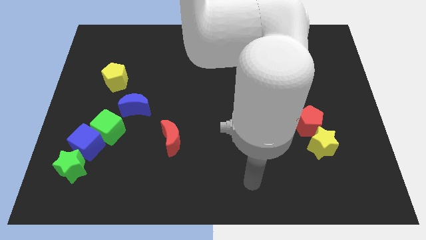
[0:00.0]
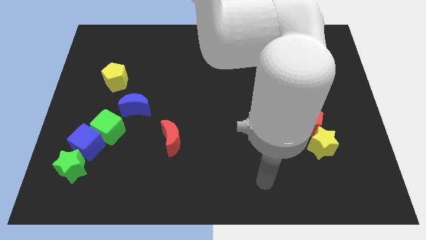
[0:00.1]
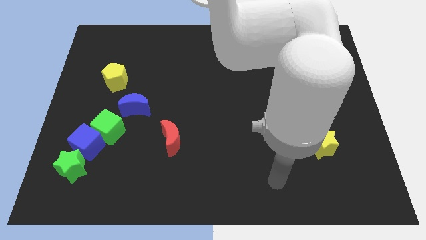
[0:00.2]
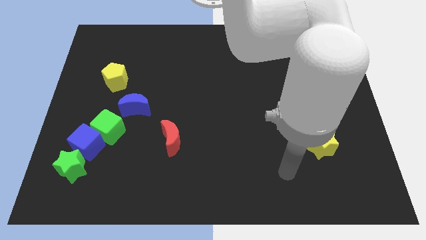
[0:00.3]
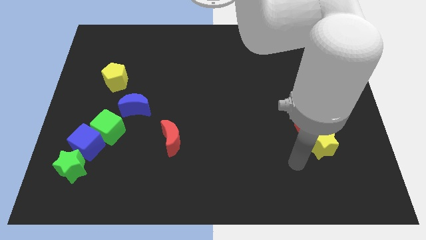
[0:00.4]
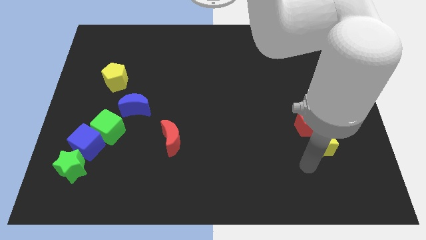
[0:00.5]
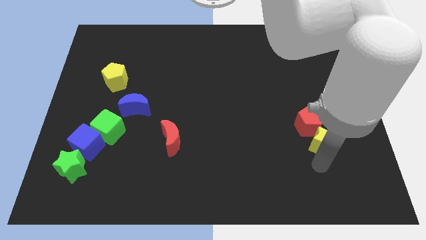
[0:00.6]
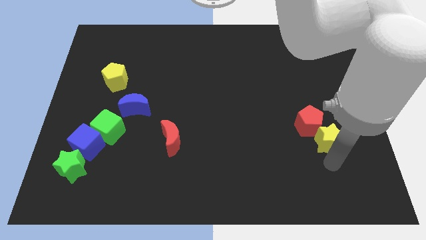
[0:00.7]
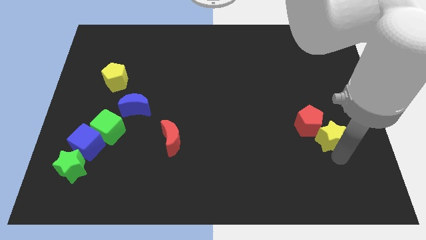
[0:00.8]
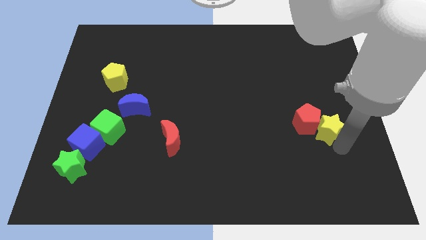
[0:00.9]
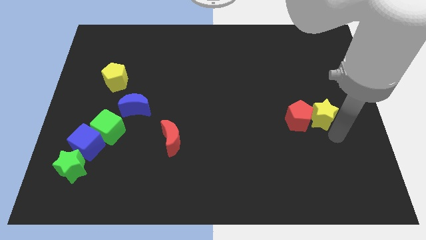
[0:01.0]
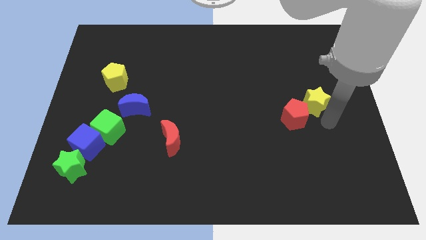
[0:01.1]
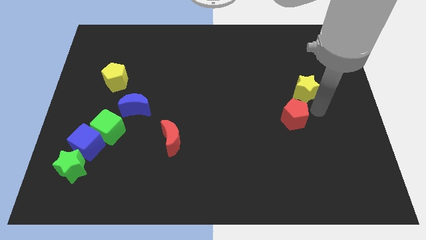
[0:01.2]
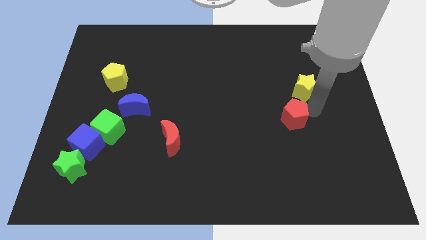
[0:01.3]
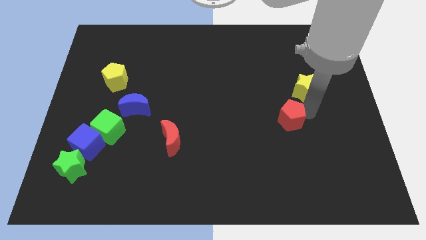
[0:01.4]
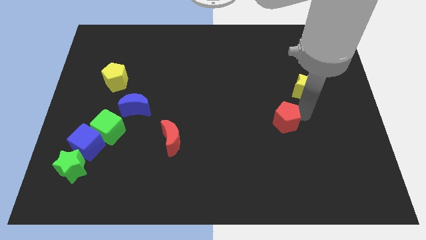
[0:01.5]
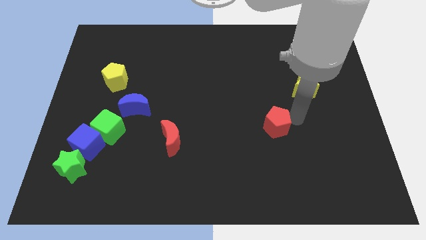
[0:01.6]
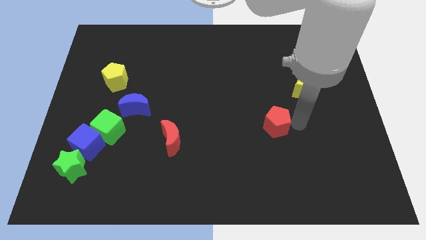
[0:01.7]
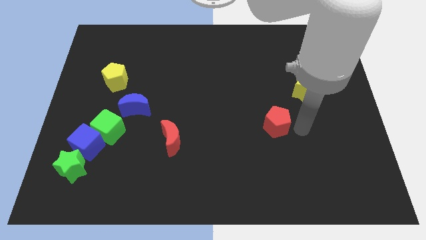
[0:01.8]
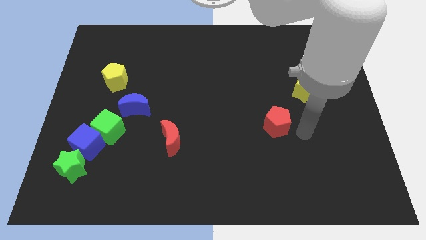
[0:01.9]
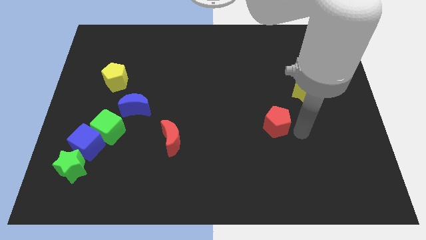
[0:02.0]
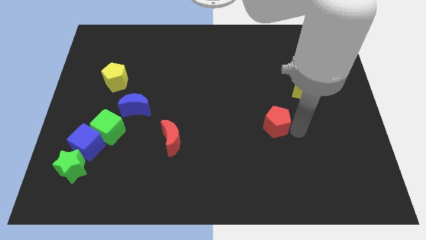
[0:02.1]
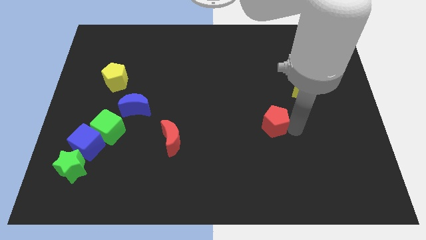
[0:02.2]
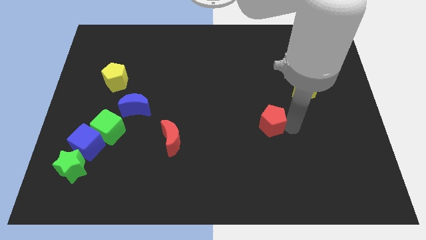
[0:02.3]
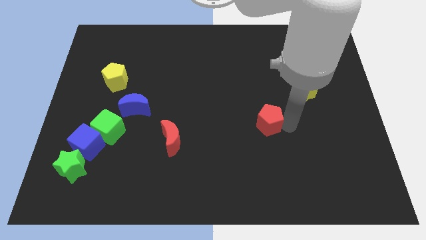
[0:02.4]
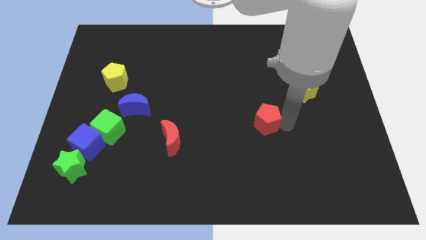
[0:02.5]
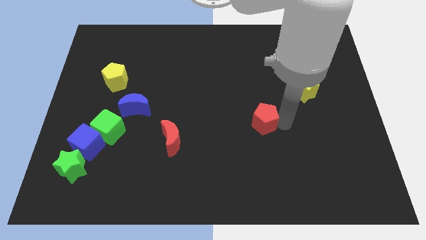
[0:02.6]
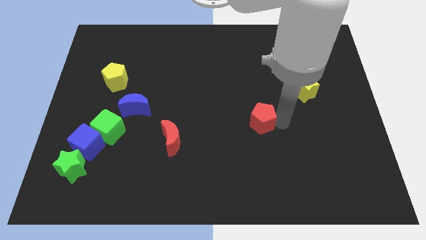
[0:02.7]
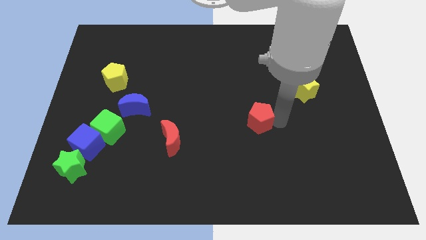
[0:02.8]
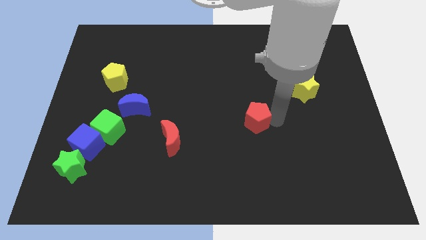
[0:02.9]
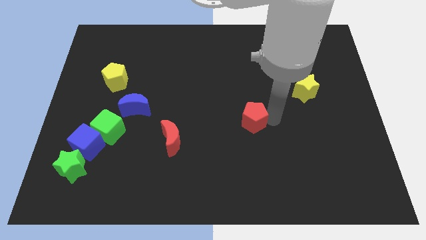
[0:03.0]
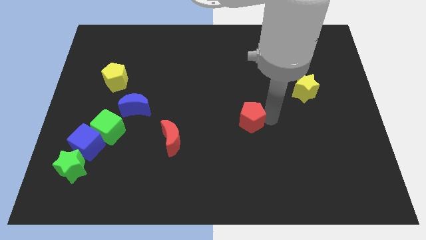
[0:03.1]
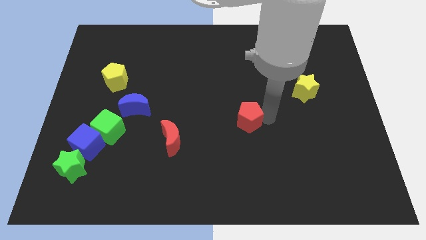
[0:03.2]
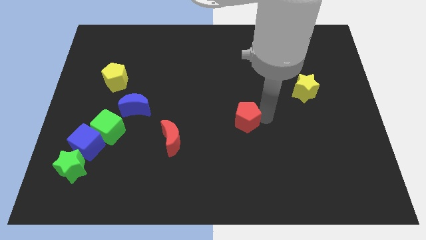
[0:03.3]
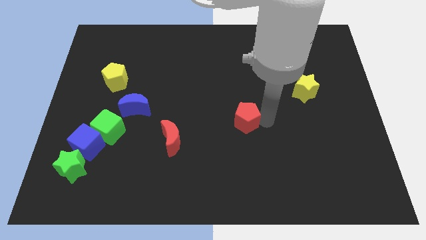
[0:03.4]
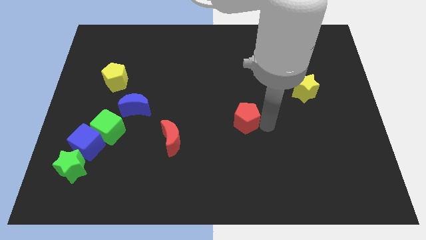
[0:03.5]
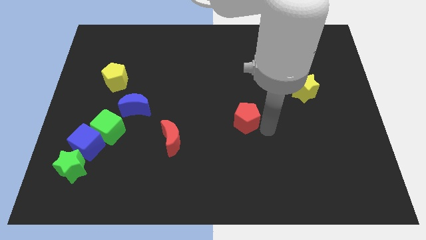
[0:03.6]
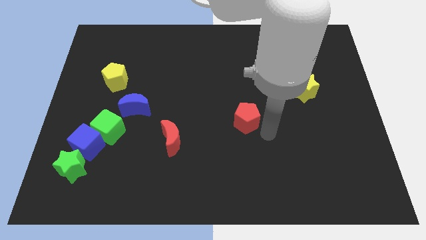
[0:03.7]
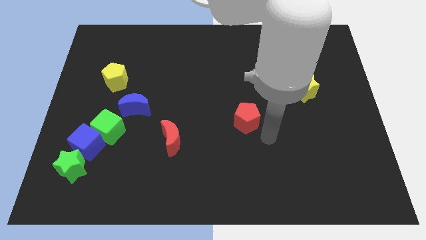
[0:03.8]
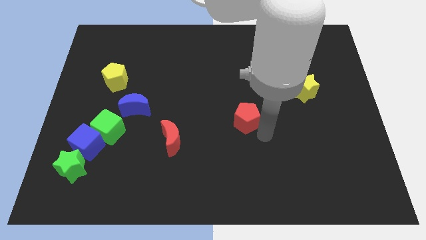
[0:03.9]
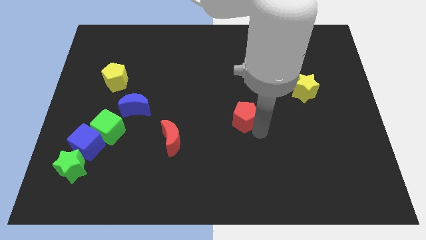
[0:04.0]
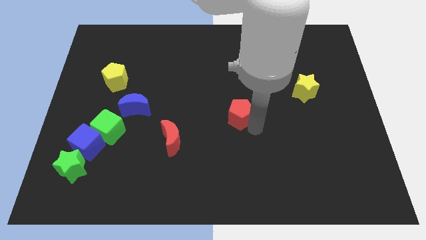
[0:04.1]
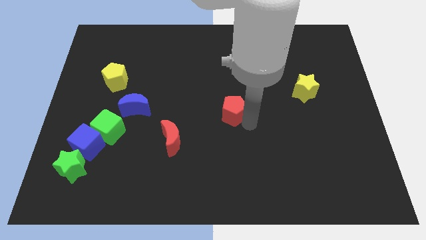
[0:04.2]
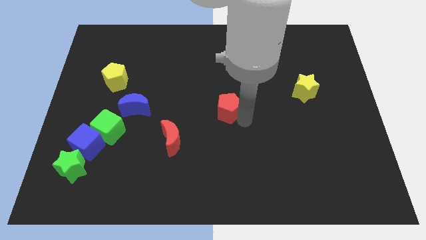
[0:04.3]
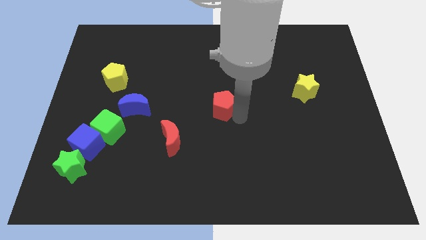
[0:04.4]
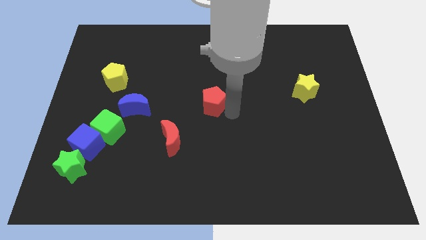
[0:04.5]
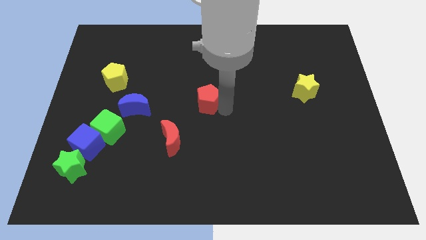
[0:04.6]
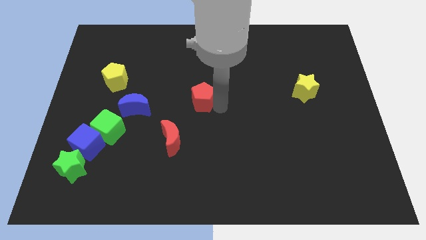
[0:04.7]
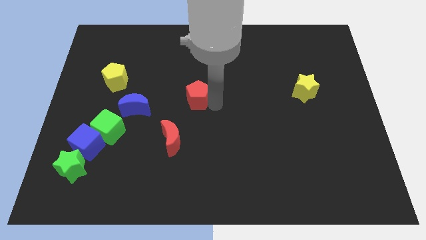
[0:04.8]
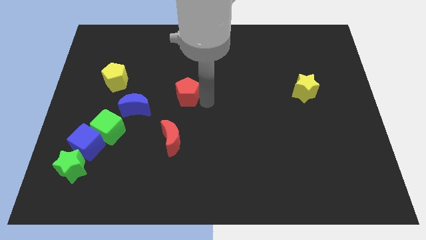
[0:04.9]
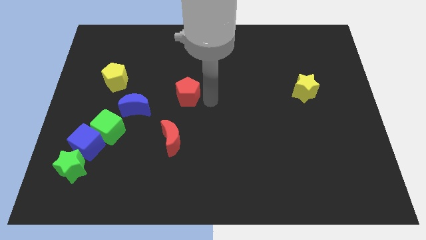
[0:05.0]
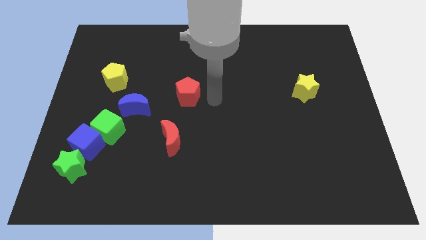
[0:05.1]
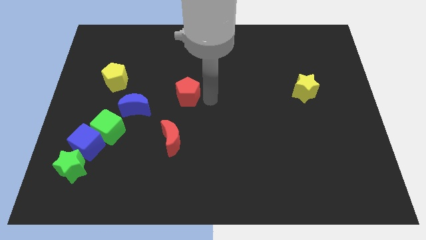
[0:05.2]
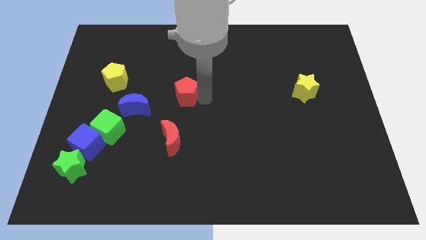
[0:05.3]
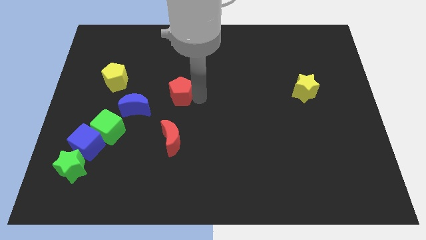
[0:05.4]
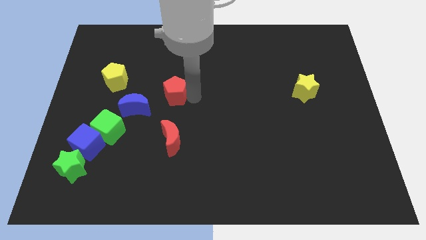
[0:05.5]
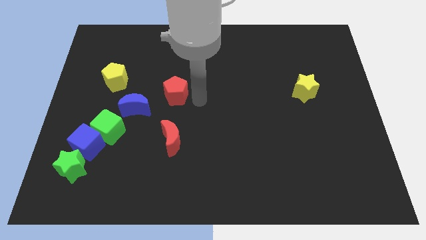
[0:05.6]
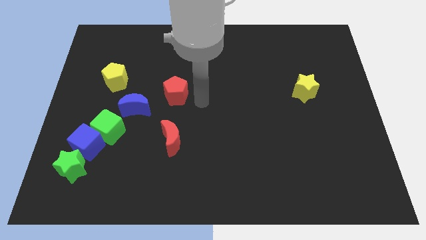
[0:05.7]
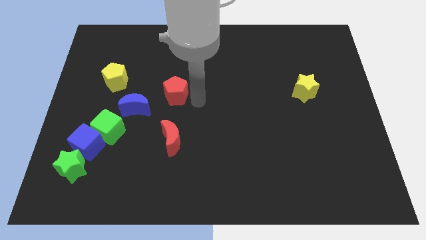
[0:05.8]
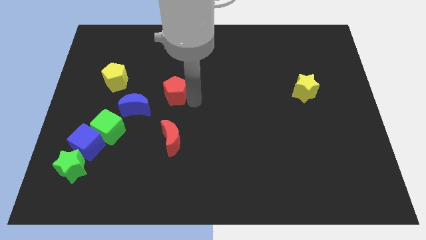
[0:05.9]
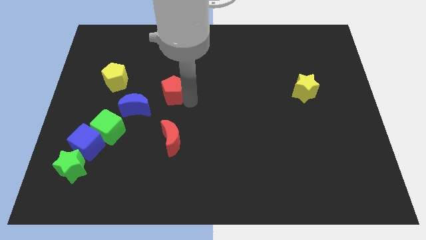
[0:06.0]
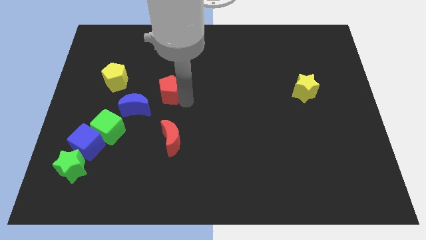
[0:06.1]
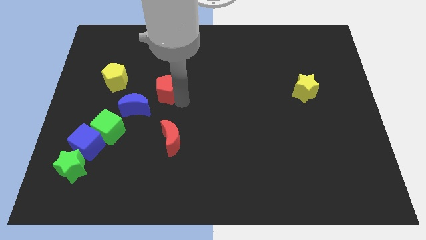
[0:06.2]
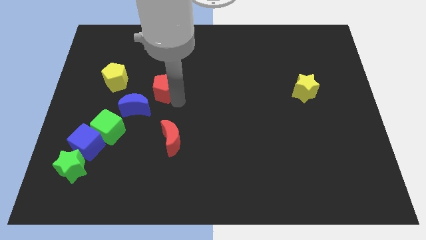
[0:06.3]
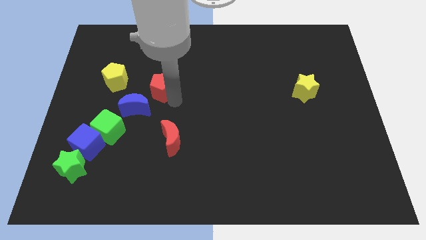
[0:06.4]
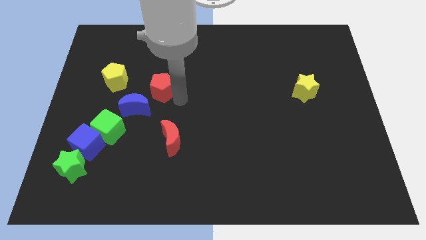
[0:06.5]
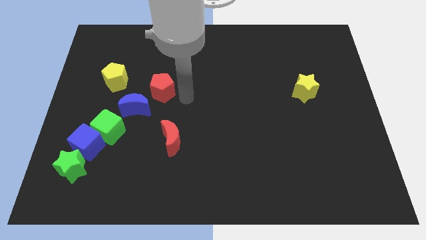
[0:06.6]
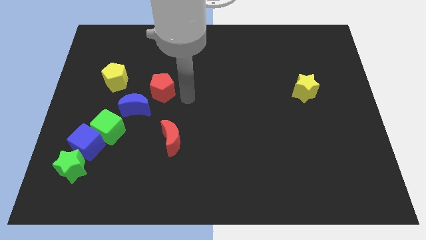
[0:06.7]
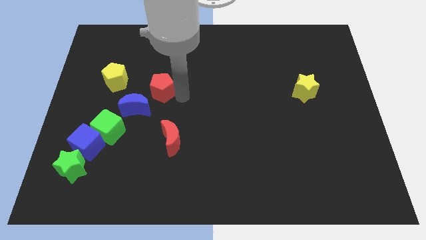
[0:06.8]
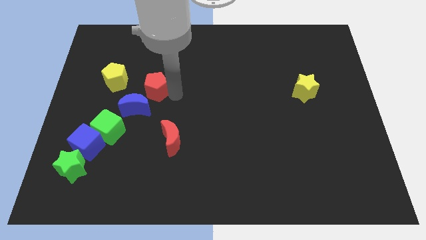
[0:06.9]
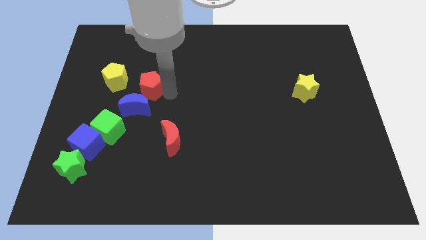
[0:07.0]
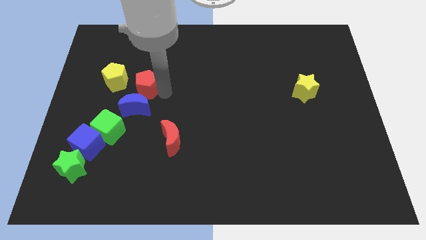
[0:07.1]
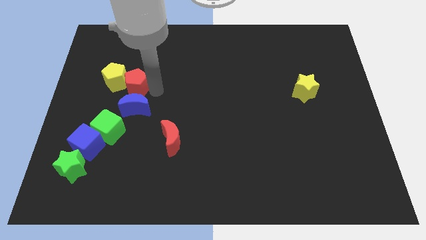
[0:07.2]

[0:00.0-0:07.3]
move the red pentagon next to the yellow pentagon

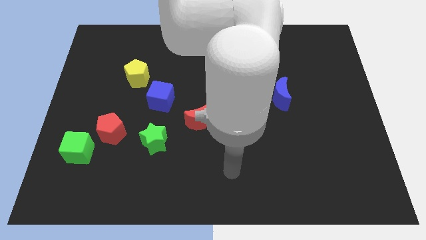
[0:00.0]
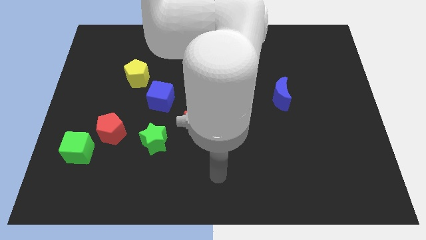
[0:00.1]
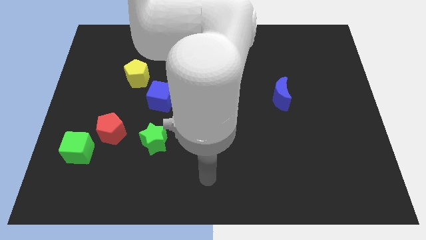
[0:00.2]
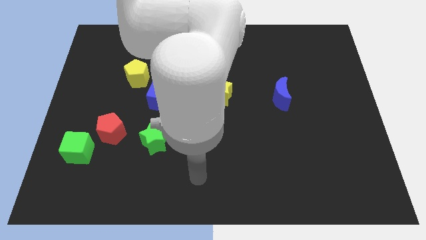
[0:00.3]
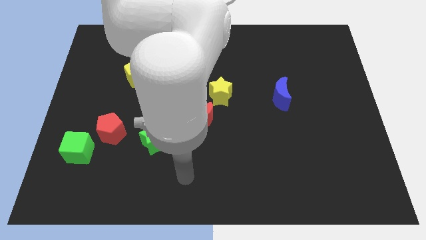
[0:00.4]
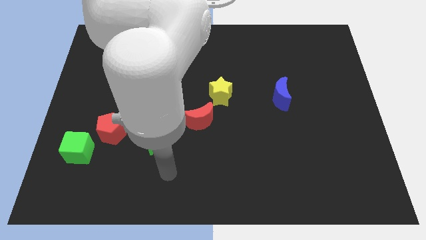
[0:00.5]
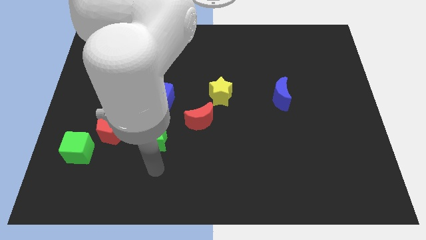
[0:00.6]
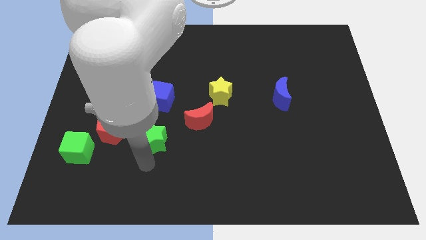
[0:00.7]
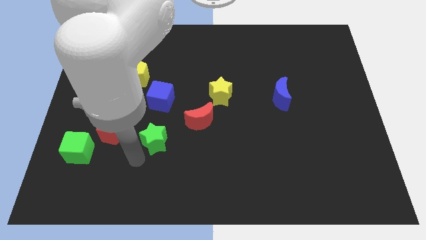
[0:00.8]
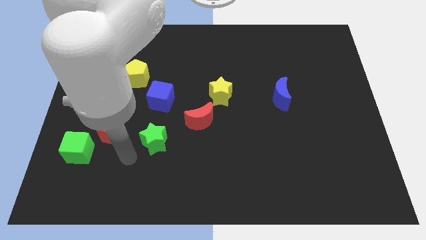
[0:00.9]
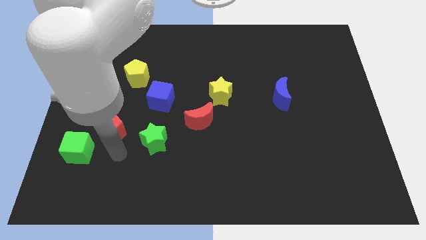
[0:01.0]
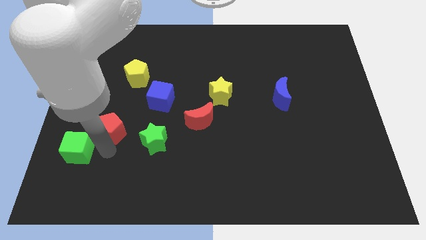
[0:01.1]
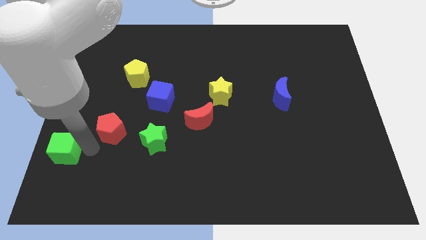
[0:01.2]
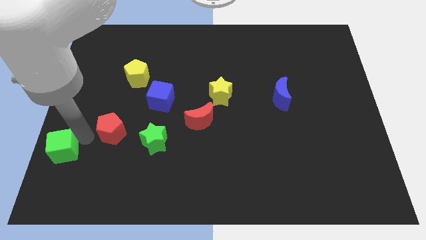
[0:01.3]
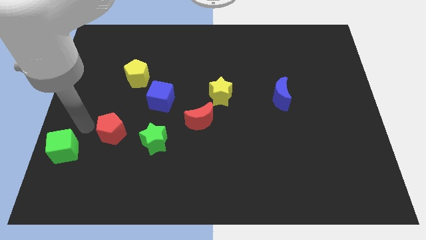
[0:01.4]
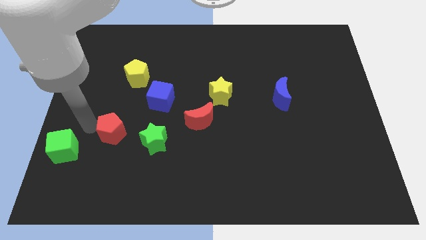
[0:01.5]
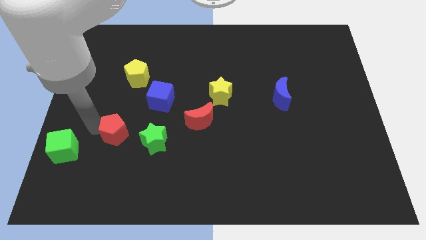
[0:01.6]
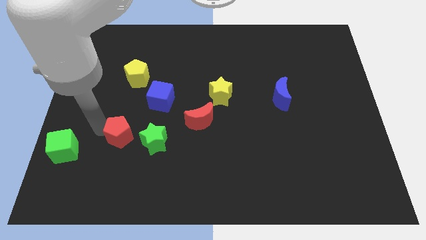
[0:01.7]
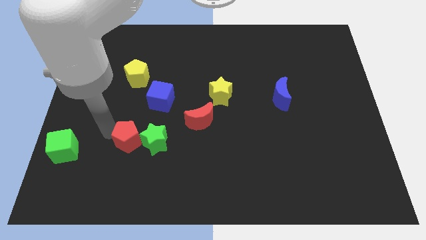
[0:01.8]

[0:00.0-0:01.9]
slide the red pentagon next to the green star
